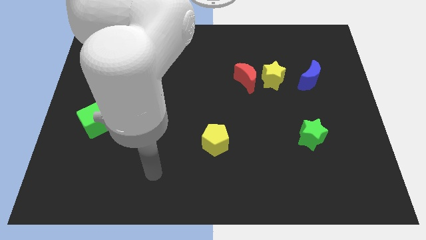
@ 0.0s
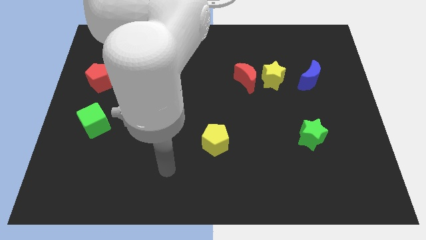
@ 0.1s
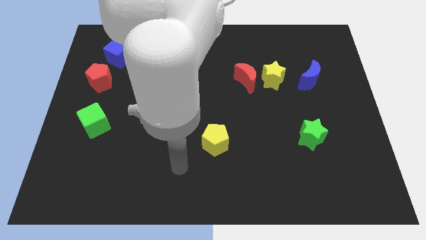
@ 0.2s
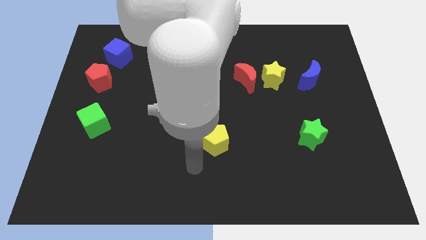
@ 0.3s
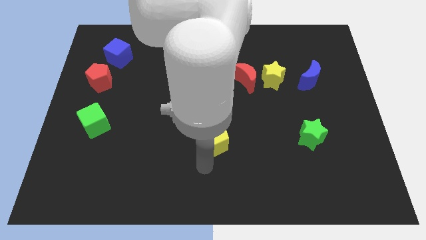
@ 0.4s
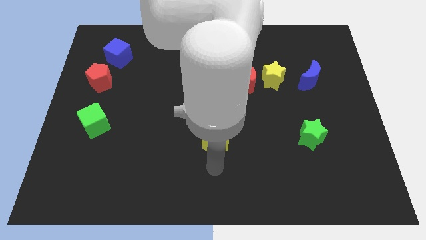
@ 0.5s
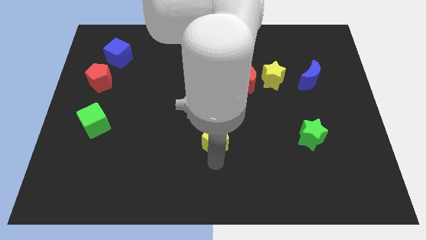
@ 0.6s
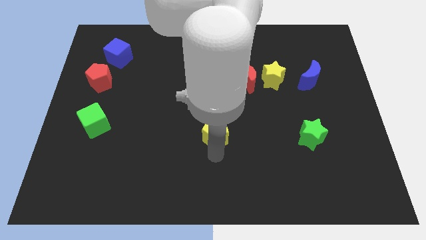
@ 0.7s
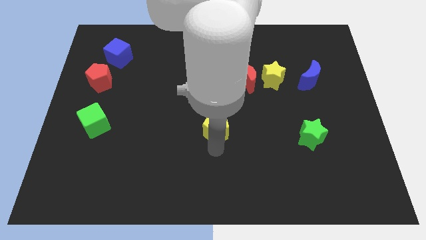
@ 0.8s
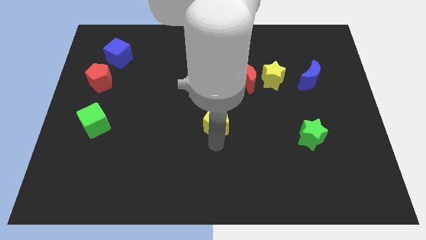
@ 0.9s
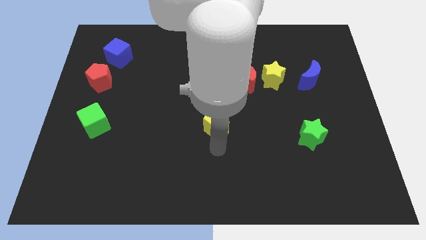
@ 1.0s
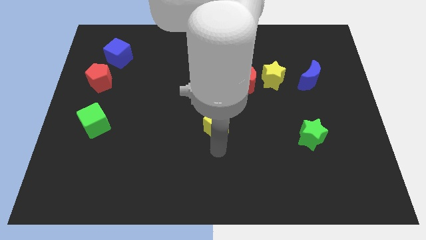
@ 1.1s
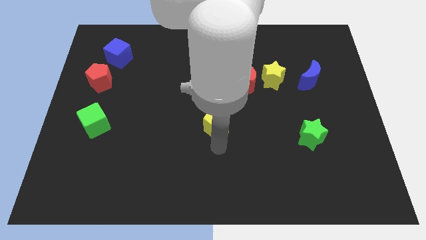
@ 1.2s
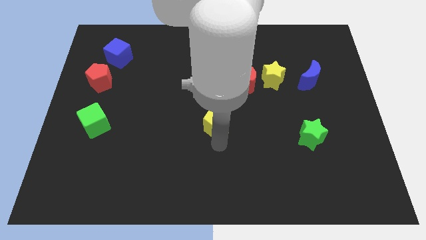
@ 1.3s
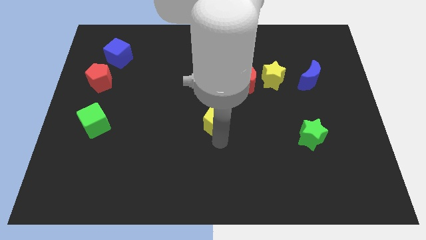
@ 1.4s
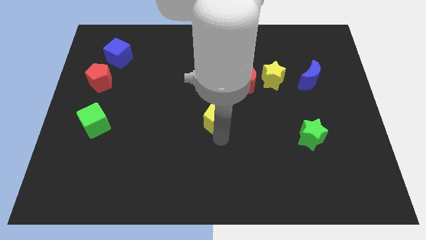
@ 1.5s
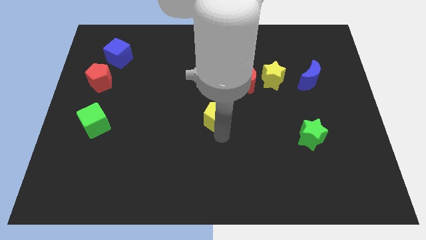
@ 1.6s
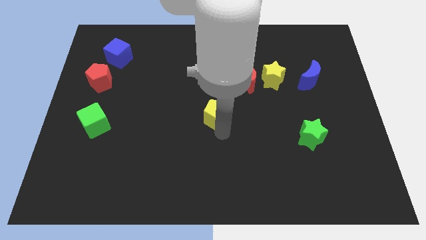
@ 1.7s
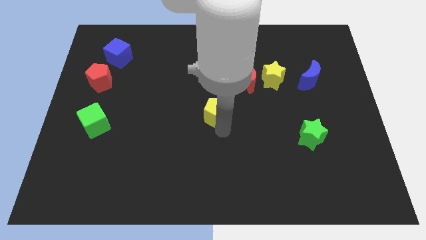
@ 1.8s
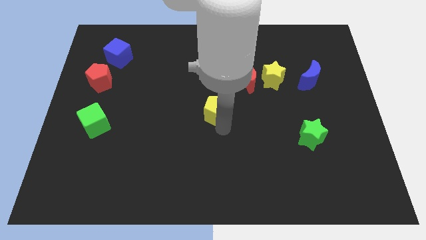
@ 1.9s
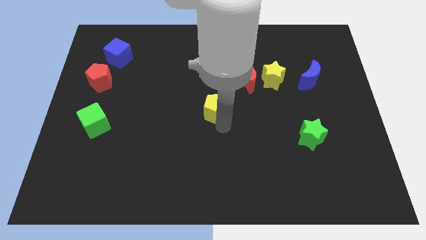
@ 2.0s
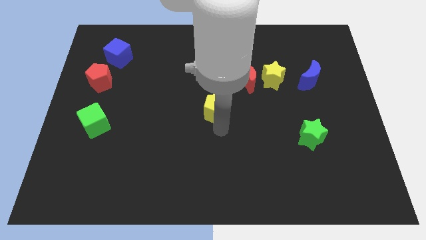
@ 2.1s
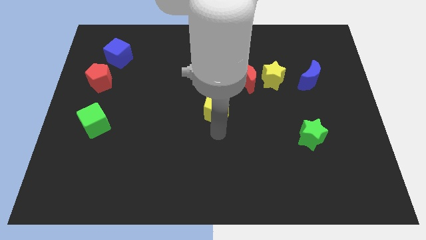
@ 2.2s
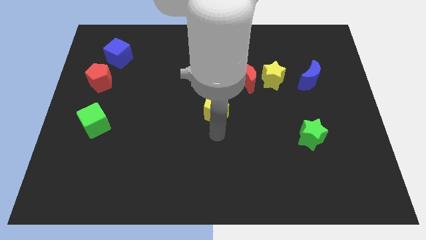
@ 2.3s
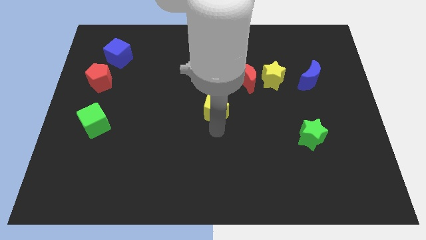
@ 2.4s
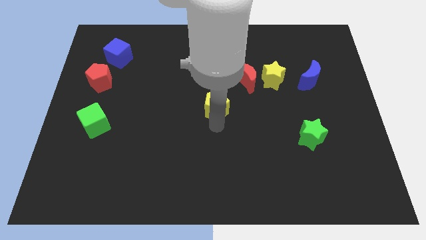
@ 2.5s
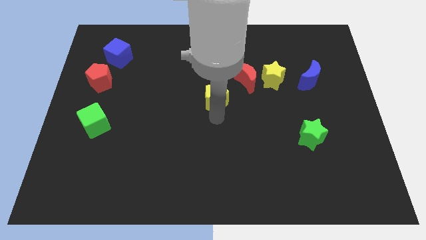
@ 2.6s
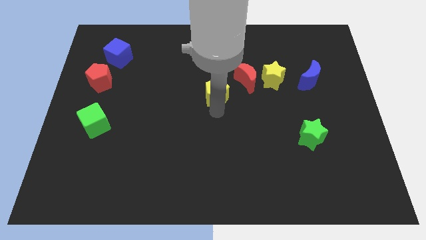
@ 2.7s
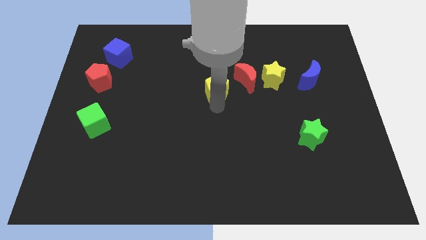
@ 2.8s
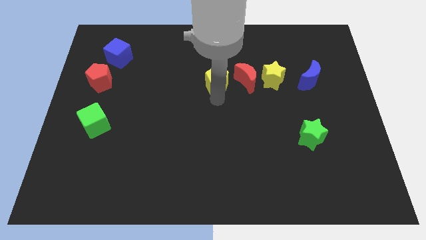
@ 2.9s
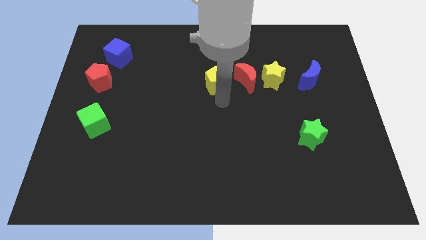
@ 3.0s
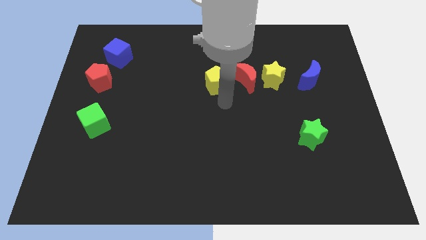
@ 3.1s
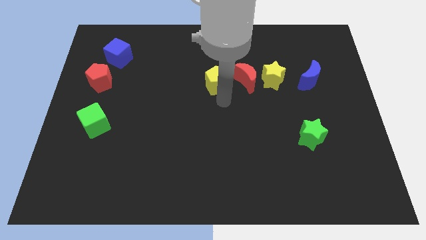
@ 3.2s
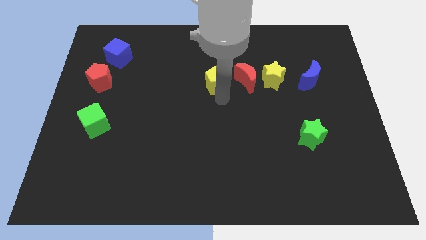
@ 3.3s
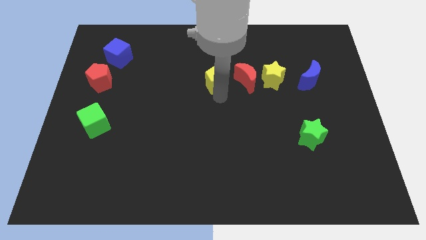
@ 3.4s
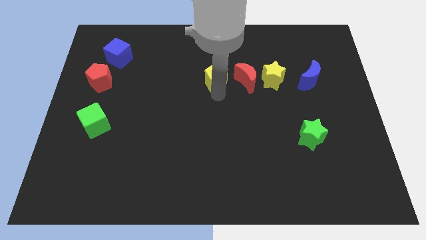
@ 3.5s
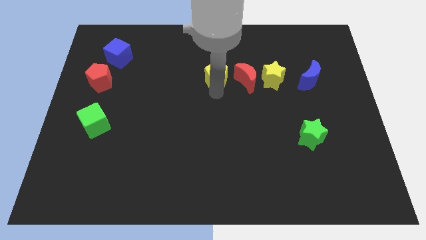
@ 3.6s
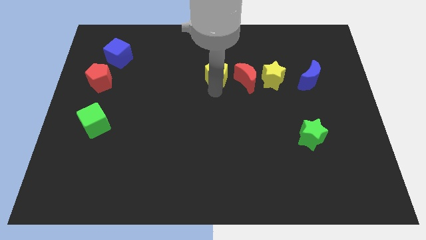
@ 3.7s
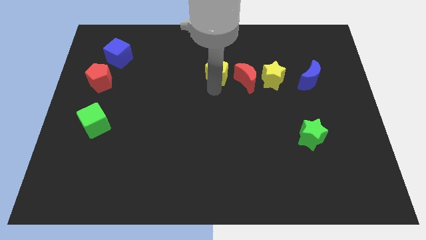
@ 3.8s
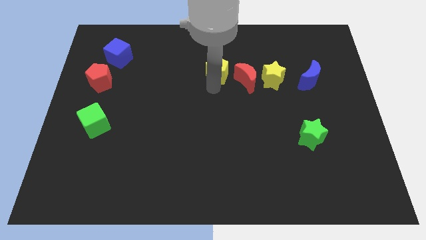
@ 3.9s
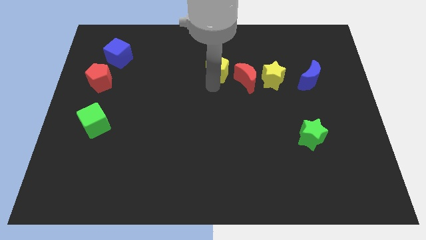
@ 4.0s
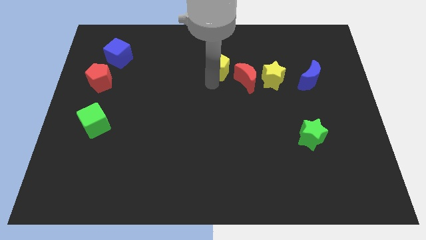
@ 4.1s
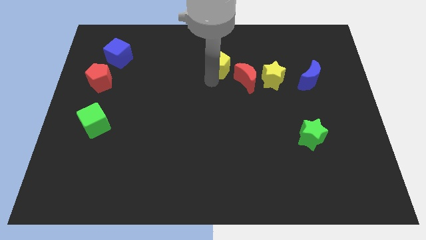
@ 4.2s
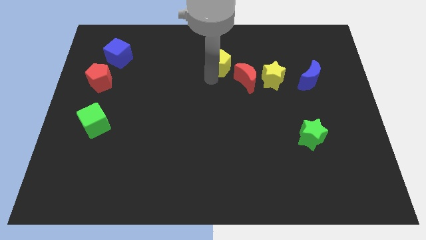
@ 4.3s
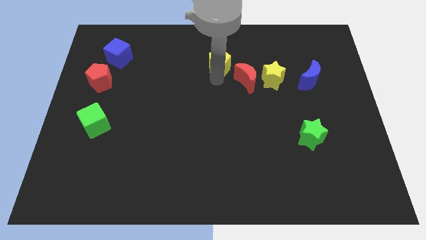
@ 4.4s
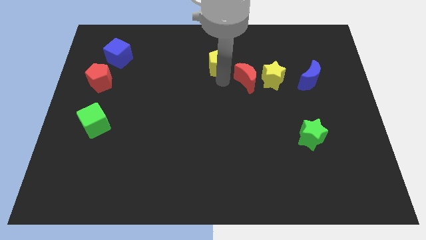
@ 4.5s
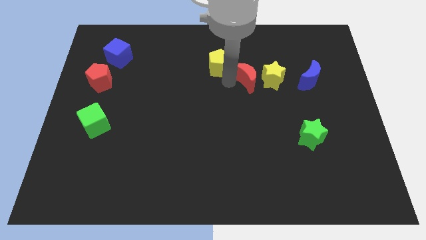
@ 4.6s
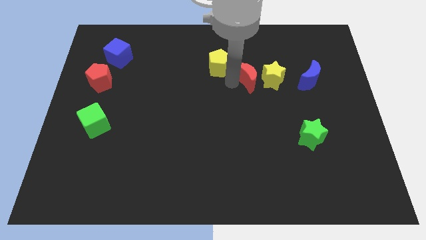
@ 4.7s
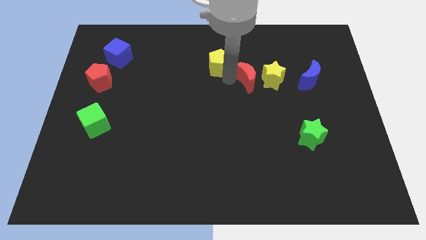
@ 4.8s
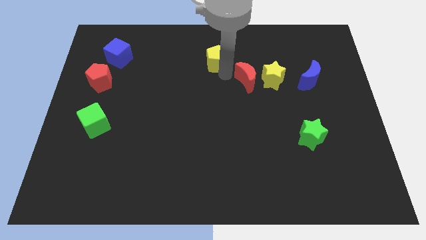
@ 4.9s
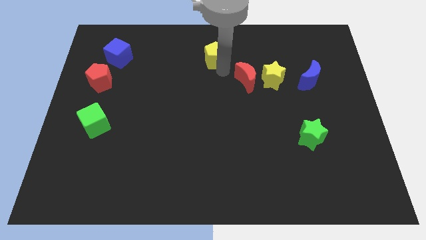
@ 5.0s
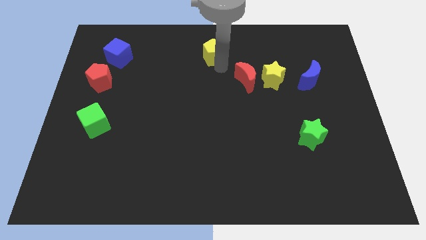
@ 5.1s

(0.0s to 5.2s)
slide the yellow pentagon to the top
